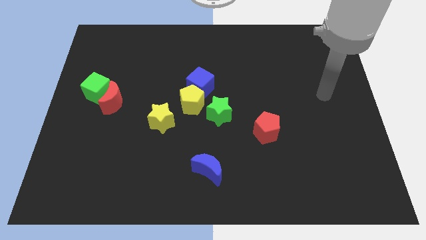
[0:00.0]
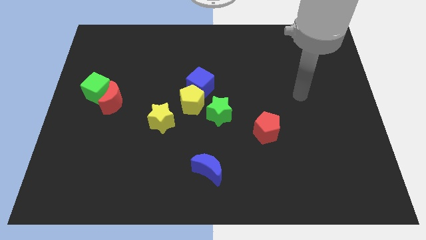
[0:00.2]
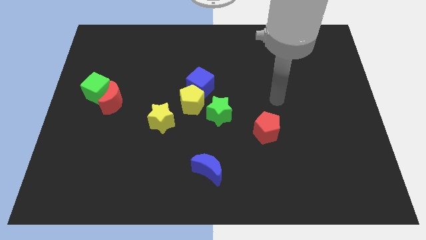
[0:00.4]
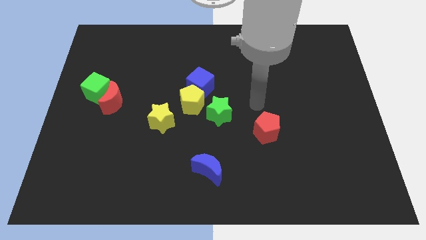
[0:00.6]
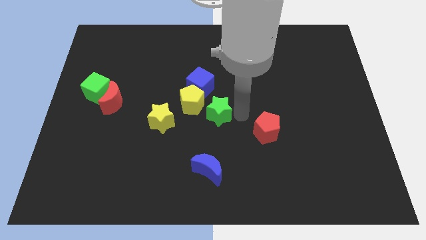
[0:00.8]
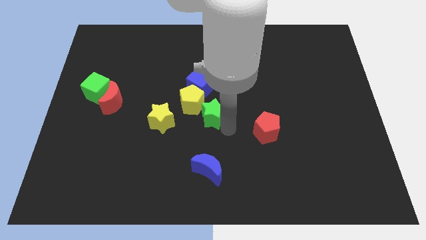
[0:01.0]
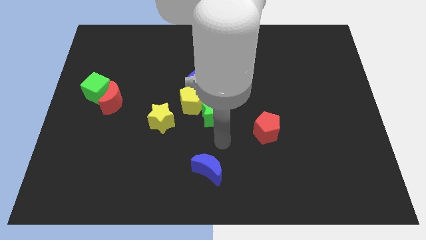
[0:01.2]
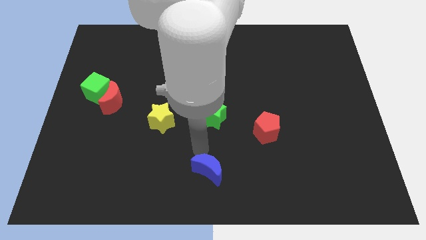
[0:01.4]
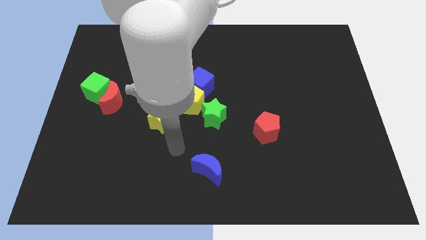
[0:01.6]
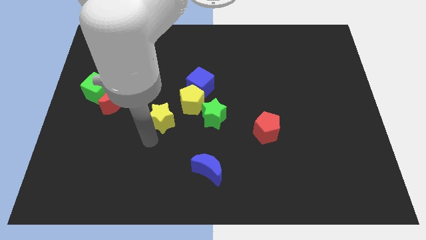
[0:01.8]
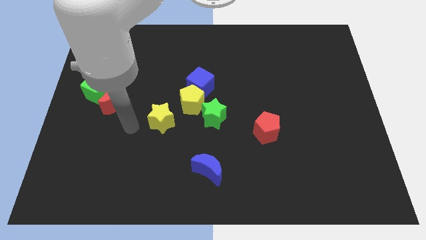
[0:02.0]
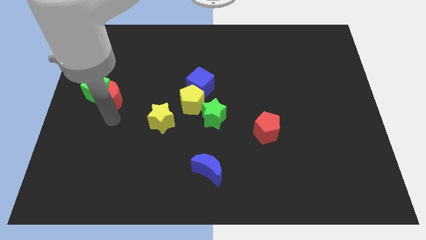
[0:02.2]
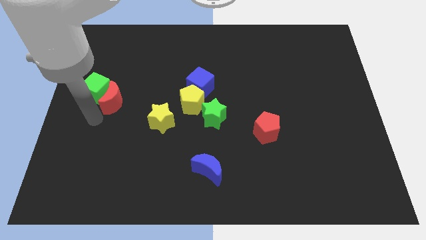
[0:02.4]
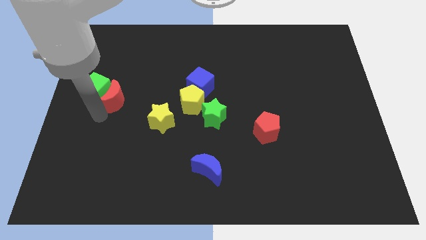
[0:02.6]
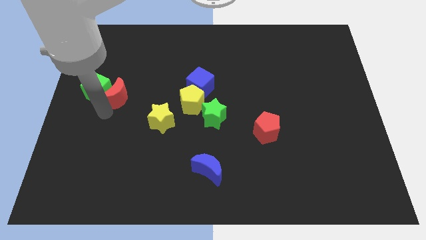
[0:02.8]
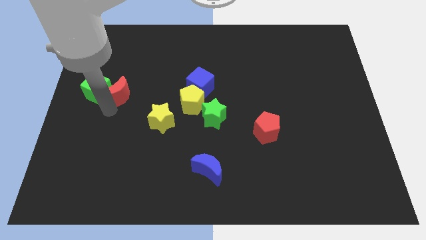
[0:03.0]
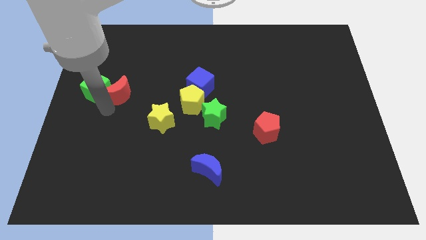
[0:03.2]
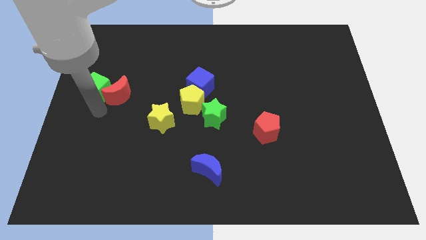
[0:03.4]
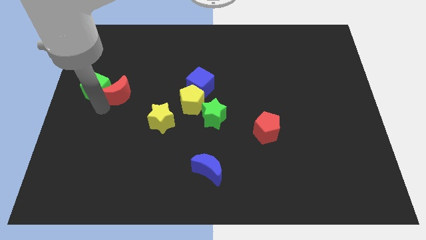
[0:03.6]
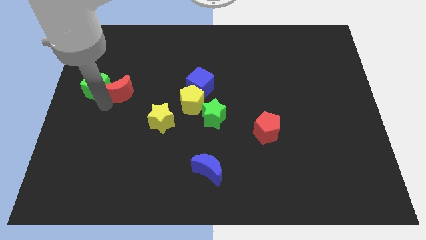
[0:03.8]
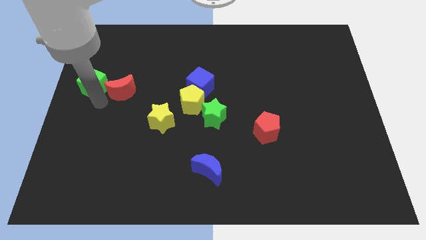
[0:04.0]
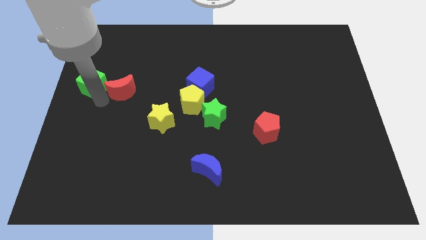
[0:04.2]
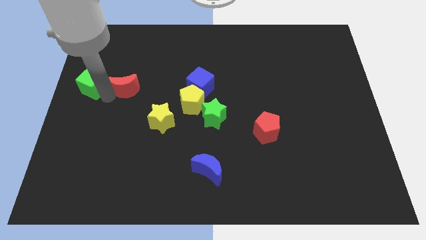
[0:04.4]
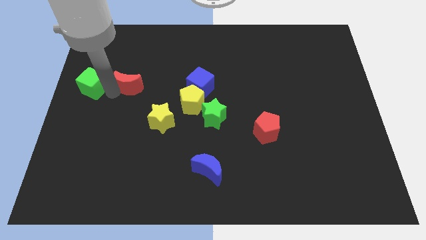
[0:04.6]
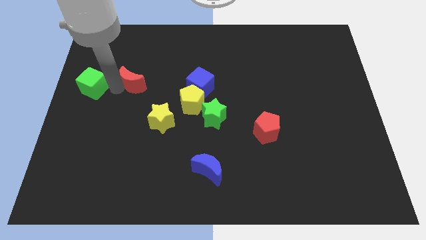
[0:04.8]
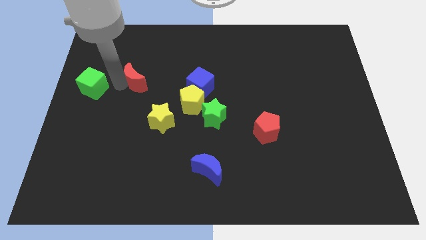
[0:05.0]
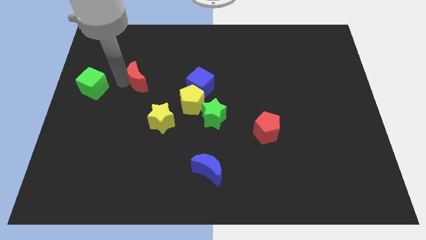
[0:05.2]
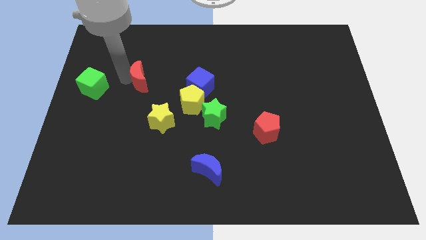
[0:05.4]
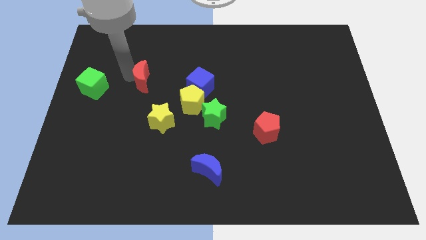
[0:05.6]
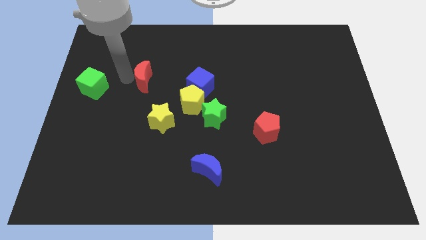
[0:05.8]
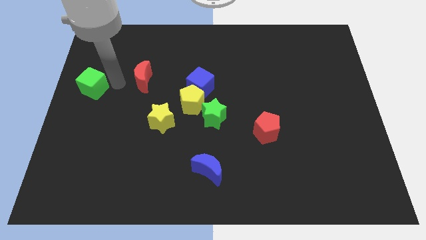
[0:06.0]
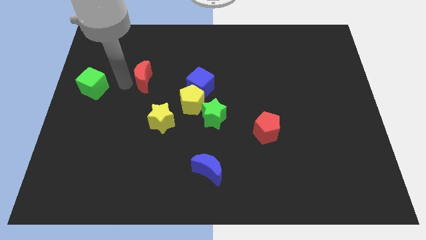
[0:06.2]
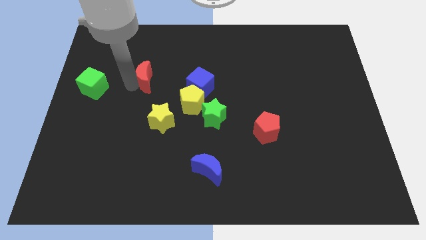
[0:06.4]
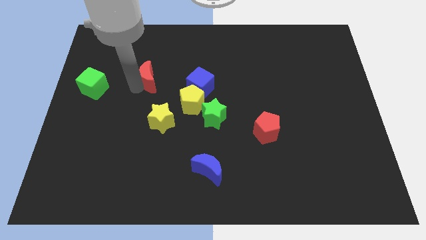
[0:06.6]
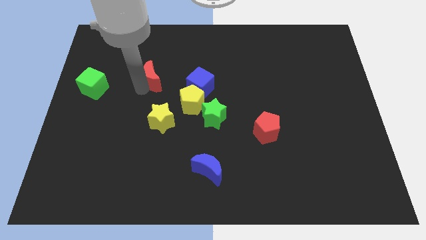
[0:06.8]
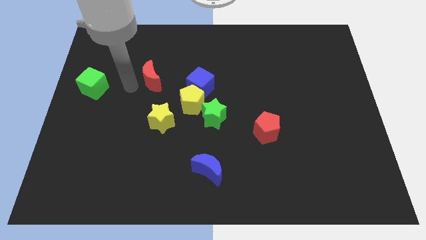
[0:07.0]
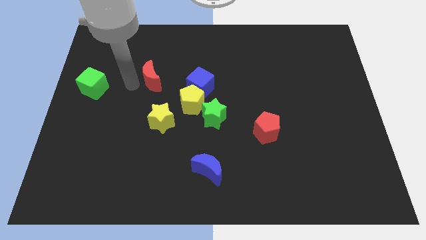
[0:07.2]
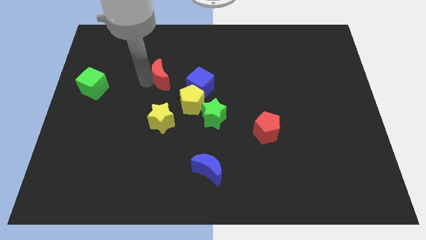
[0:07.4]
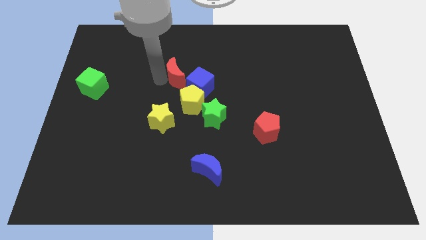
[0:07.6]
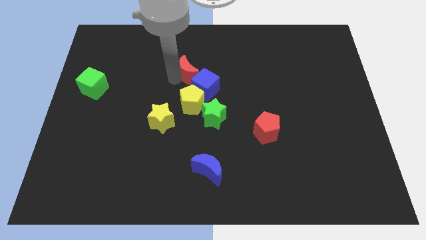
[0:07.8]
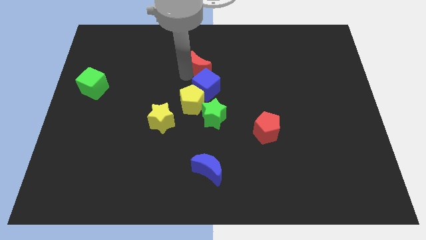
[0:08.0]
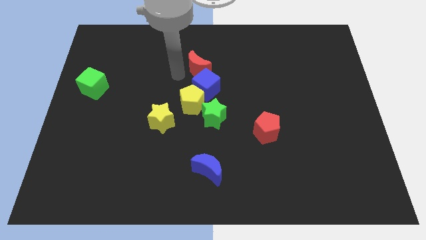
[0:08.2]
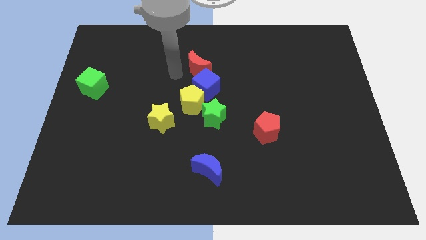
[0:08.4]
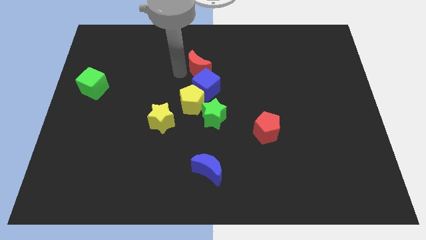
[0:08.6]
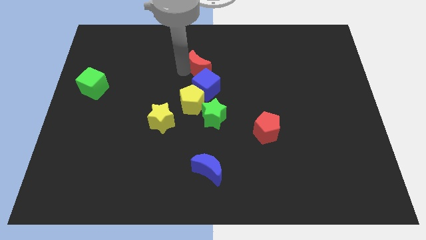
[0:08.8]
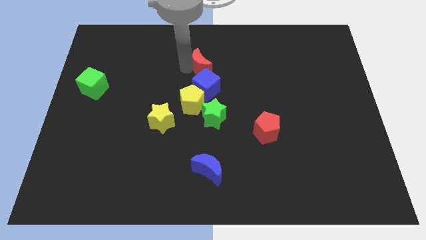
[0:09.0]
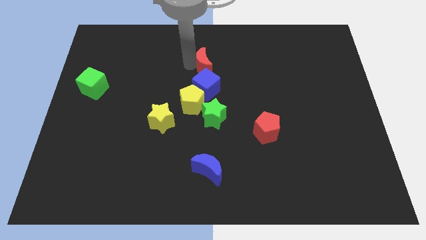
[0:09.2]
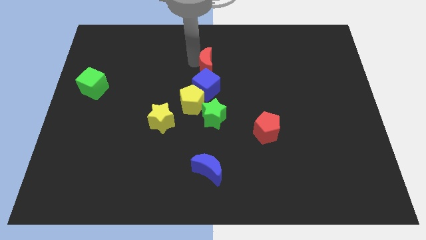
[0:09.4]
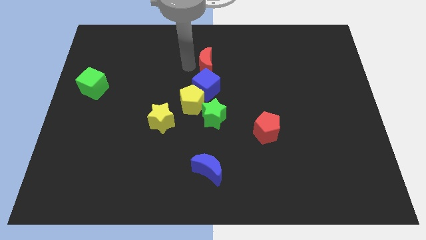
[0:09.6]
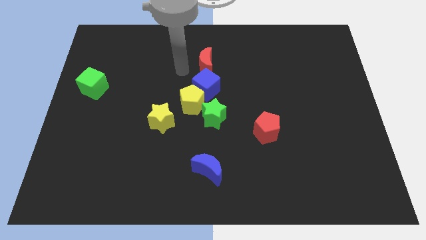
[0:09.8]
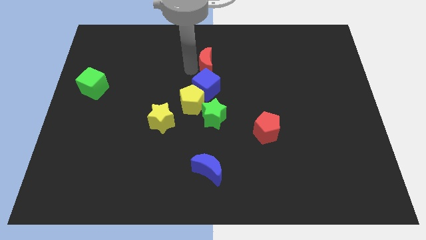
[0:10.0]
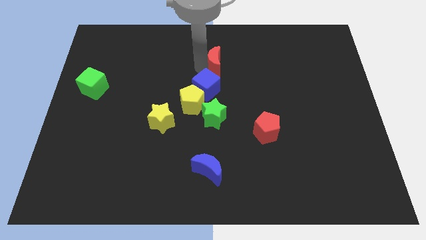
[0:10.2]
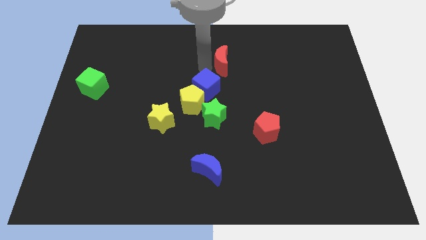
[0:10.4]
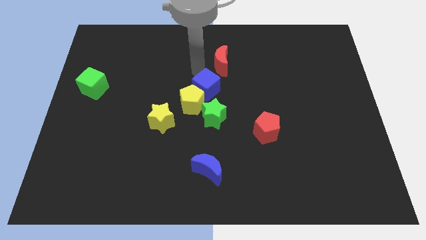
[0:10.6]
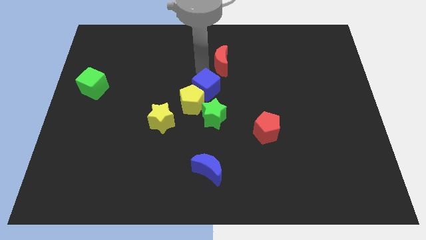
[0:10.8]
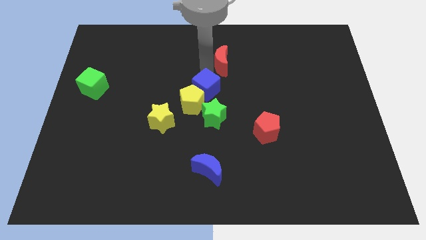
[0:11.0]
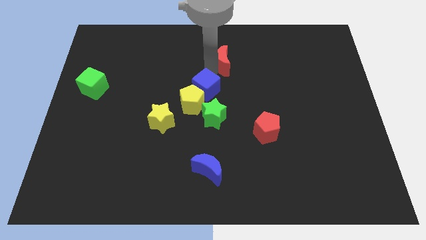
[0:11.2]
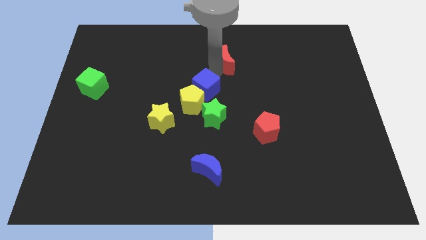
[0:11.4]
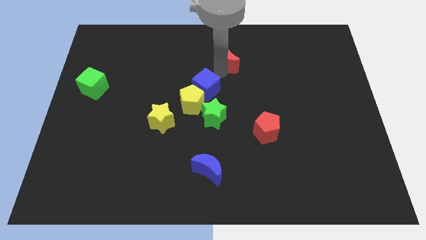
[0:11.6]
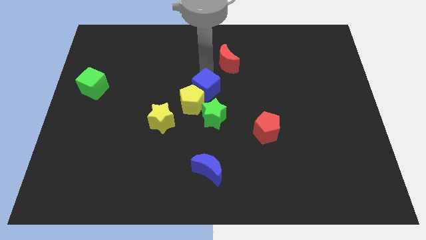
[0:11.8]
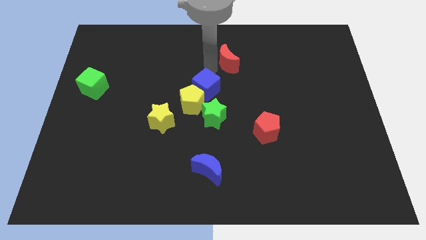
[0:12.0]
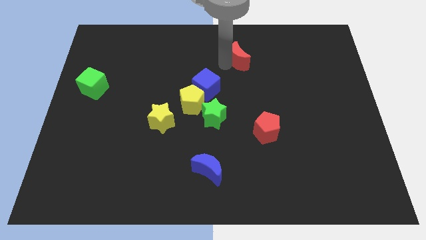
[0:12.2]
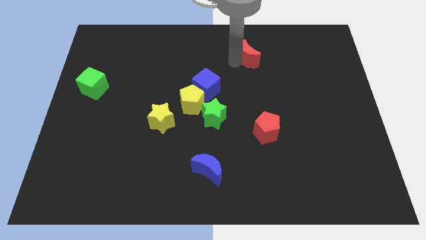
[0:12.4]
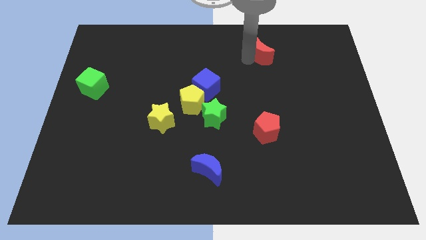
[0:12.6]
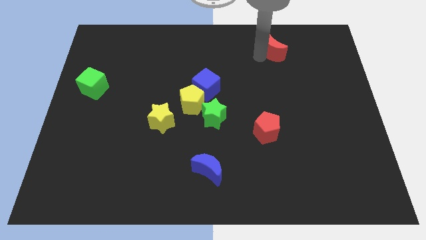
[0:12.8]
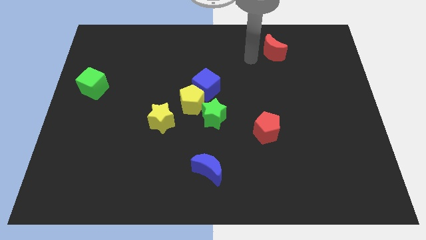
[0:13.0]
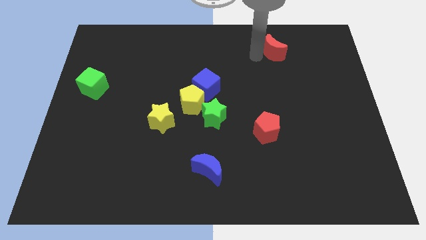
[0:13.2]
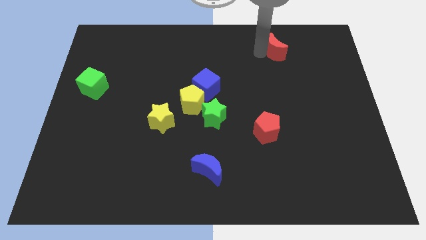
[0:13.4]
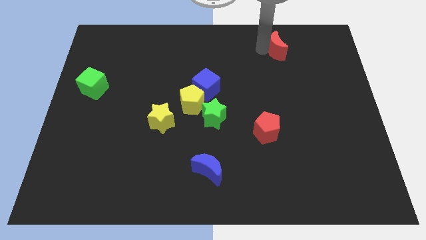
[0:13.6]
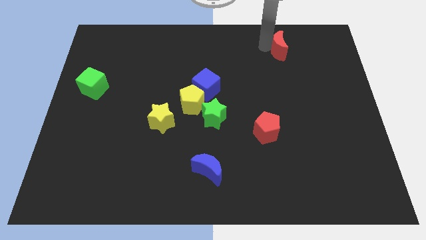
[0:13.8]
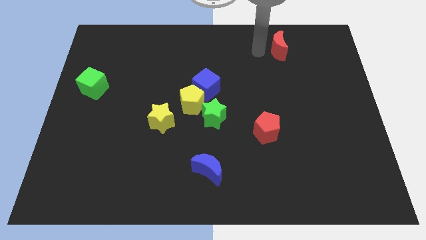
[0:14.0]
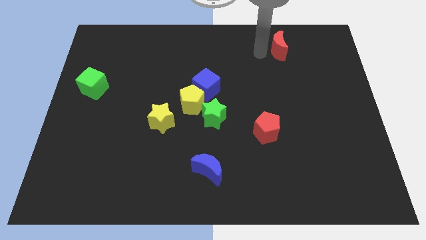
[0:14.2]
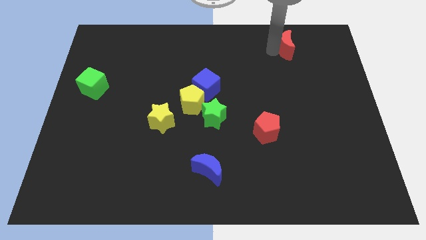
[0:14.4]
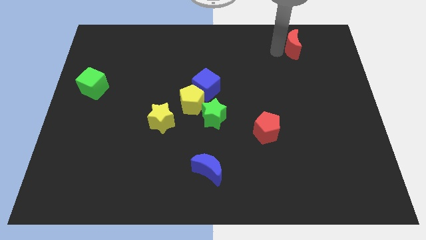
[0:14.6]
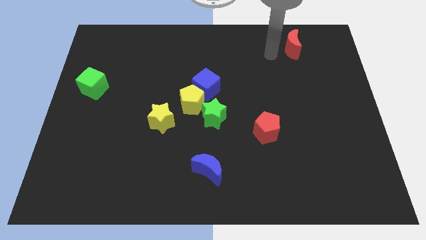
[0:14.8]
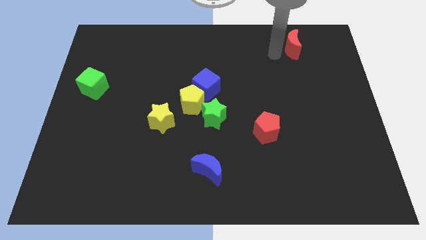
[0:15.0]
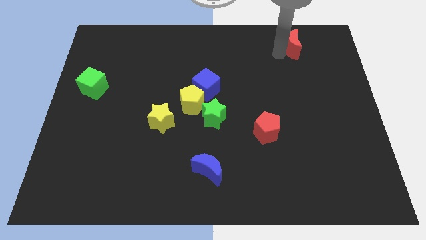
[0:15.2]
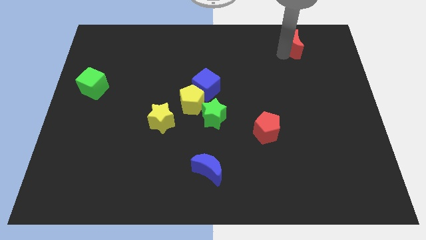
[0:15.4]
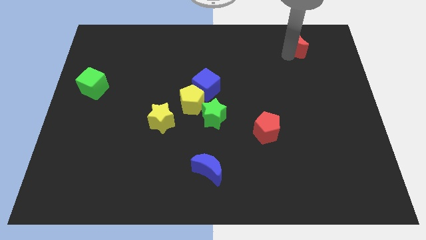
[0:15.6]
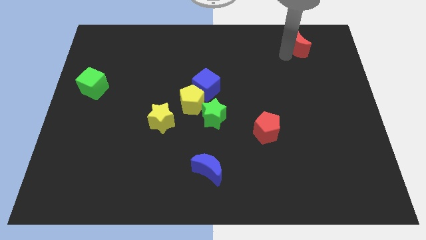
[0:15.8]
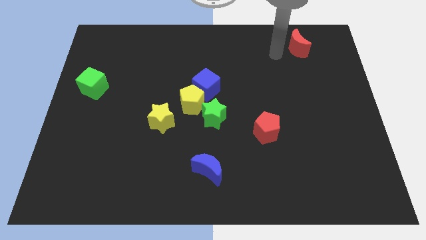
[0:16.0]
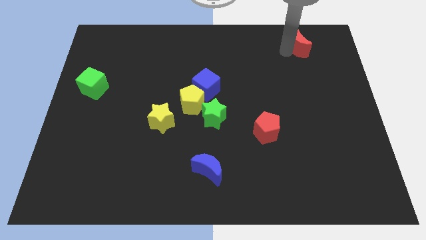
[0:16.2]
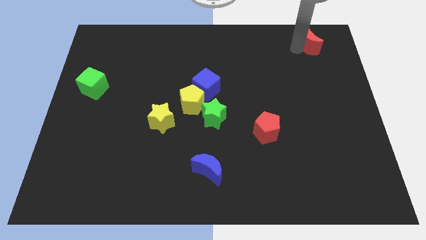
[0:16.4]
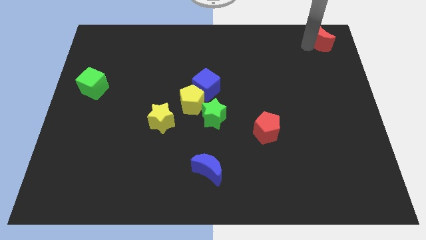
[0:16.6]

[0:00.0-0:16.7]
push the red moon to the top right
